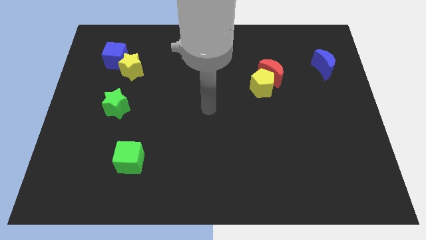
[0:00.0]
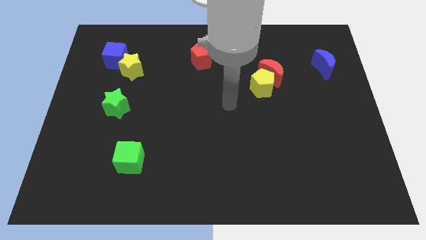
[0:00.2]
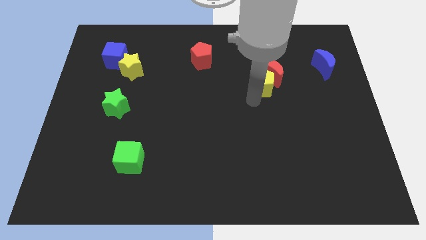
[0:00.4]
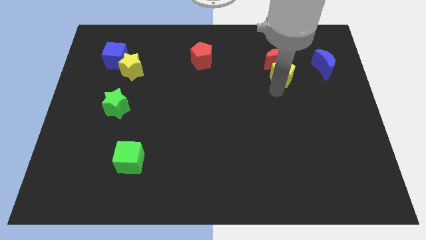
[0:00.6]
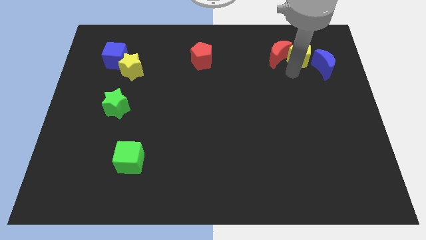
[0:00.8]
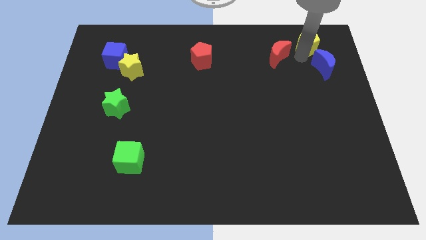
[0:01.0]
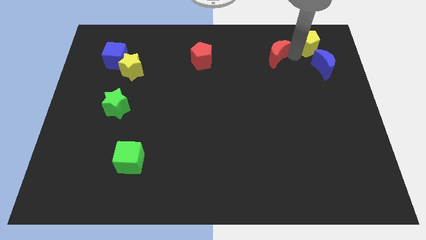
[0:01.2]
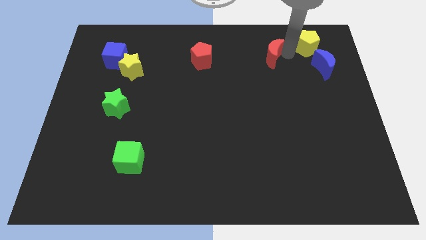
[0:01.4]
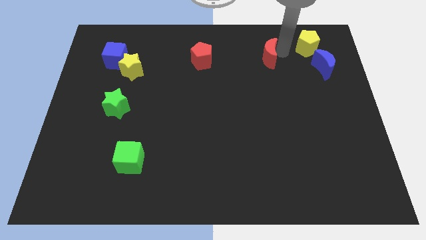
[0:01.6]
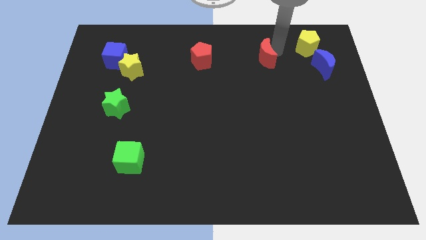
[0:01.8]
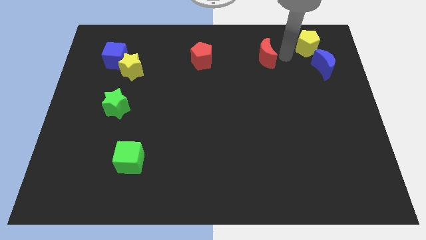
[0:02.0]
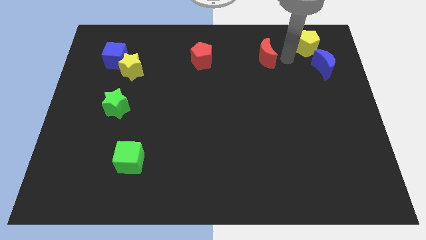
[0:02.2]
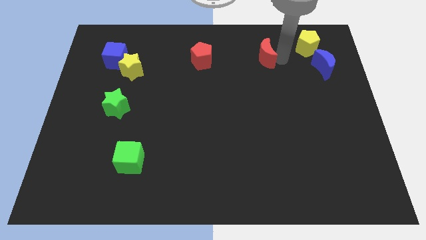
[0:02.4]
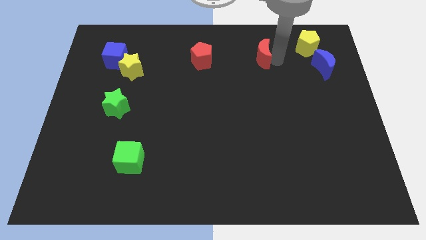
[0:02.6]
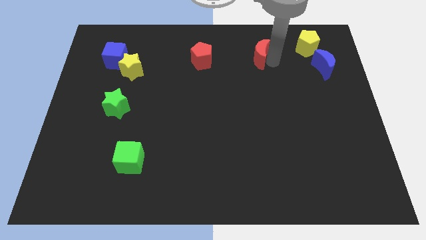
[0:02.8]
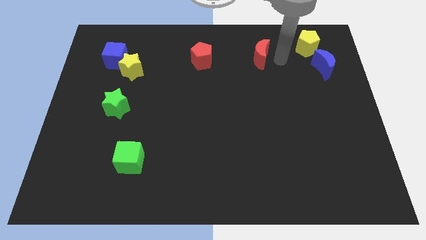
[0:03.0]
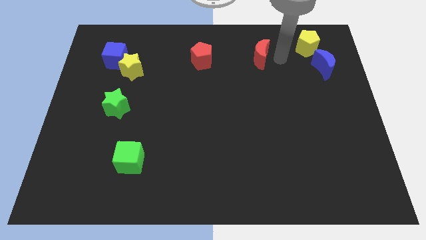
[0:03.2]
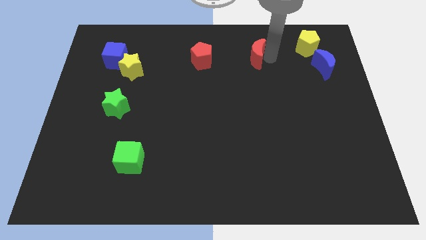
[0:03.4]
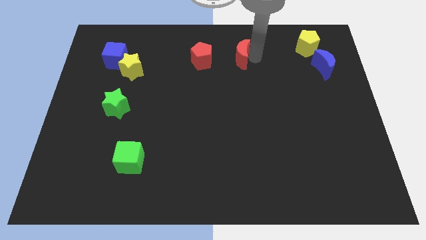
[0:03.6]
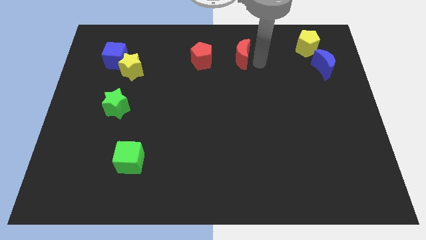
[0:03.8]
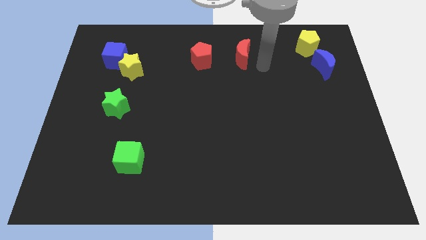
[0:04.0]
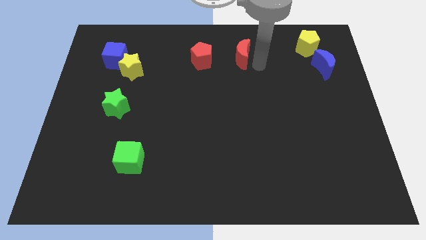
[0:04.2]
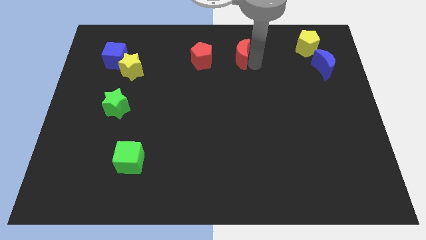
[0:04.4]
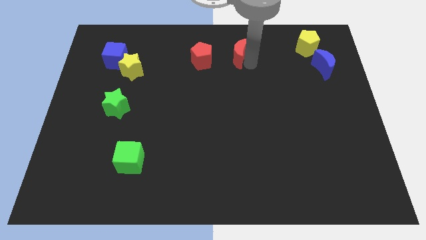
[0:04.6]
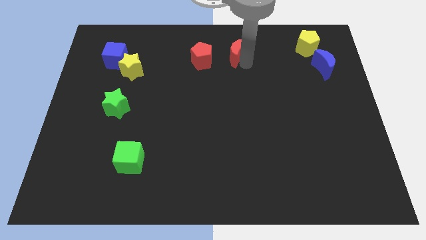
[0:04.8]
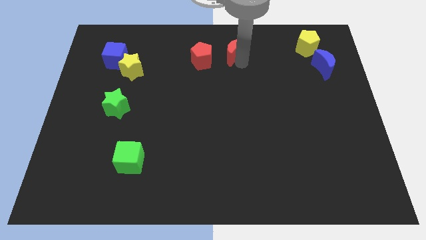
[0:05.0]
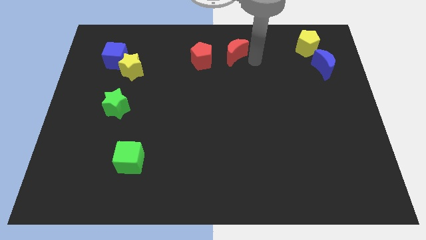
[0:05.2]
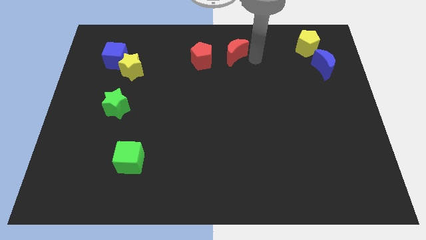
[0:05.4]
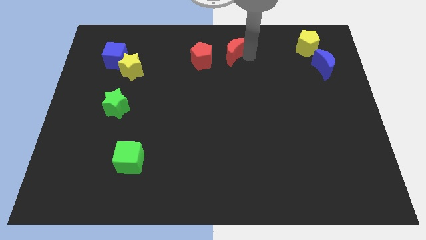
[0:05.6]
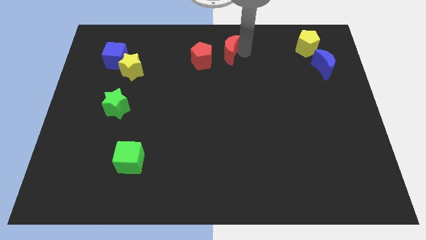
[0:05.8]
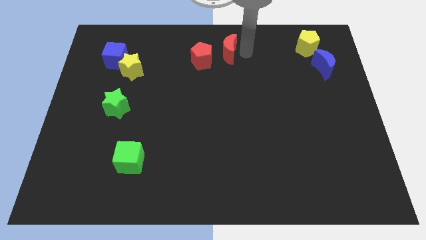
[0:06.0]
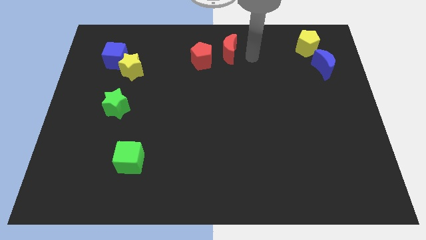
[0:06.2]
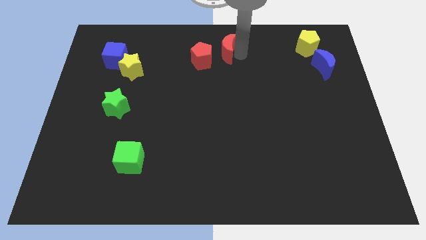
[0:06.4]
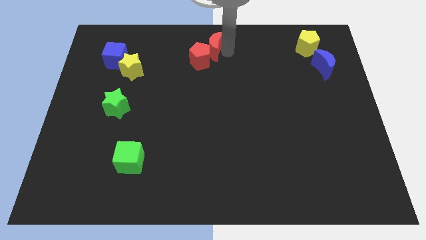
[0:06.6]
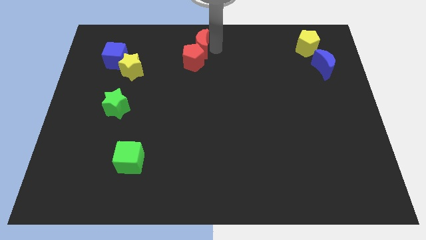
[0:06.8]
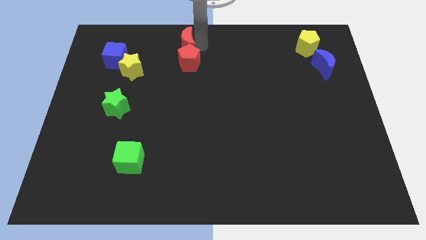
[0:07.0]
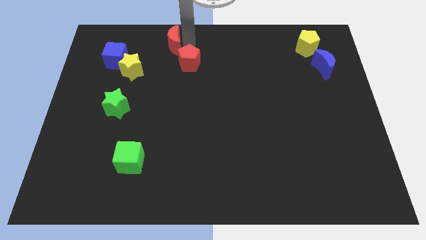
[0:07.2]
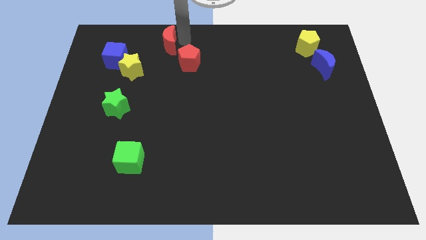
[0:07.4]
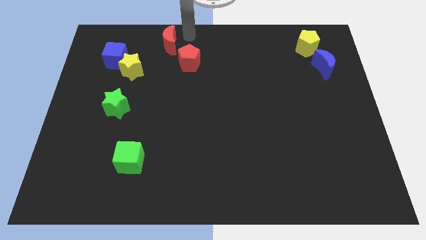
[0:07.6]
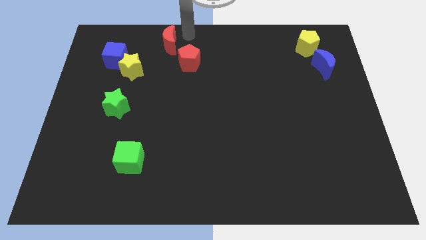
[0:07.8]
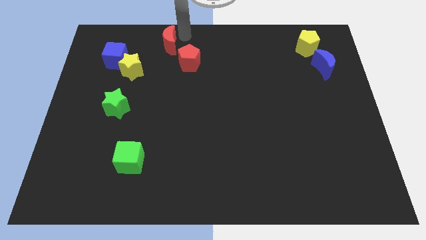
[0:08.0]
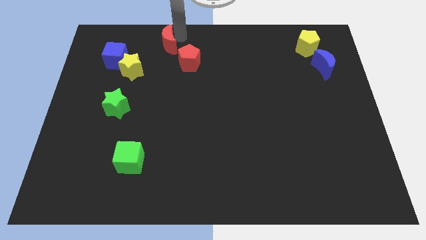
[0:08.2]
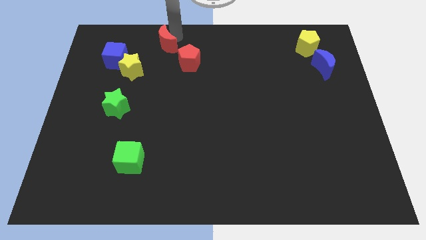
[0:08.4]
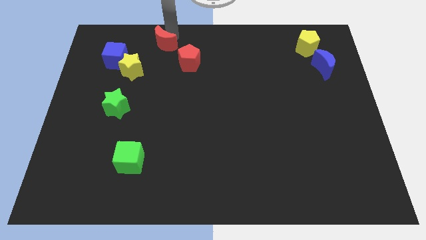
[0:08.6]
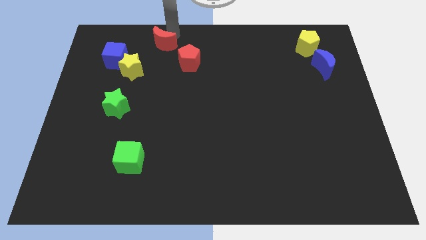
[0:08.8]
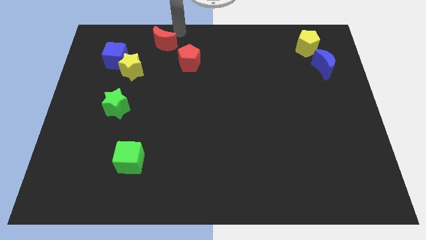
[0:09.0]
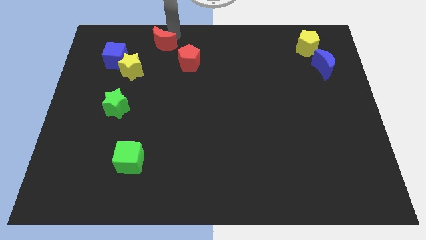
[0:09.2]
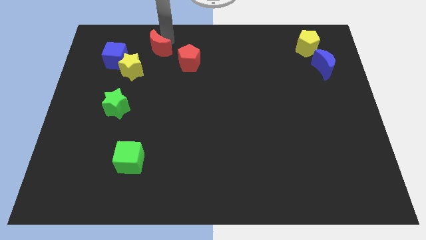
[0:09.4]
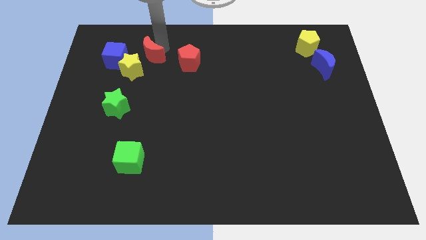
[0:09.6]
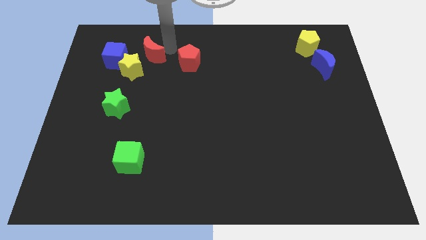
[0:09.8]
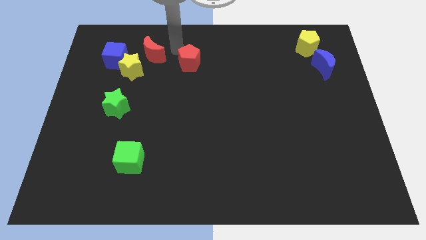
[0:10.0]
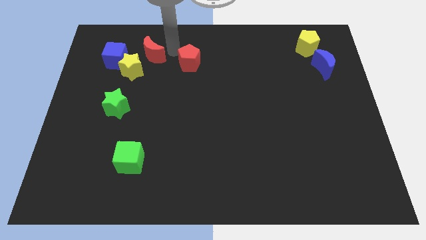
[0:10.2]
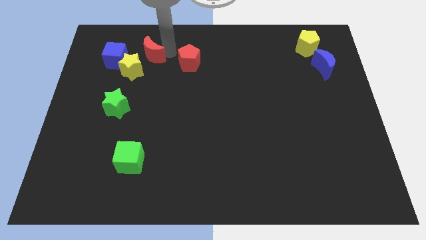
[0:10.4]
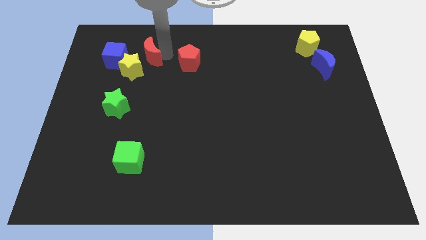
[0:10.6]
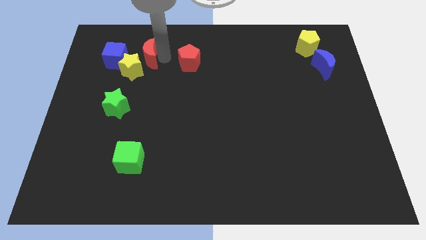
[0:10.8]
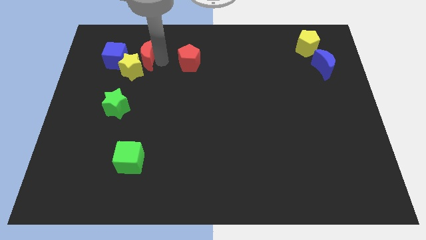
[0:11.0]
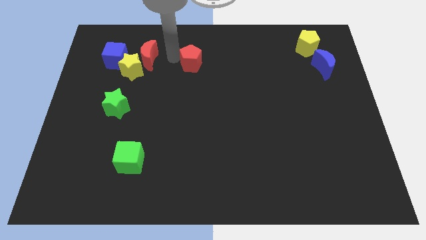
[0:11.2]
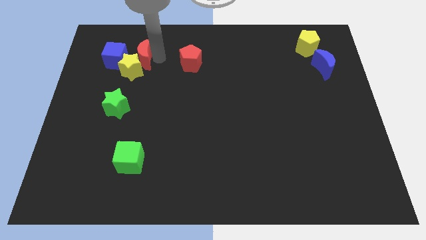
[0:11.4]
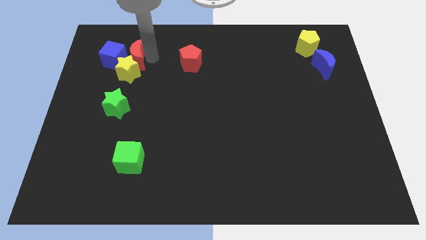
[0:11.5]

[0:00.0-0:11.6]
slide the red moon to the blue cube

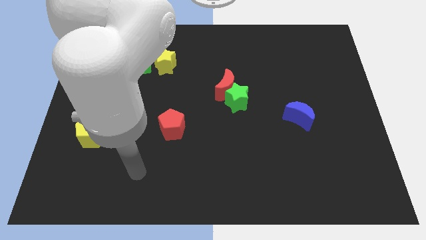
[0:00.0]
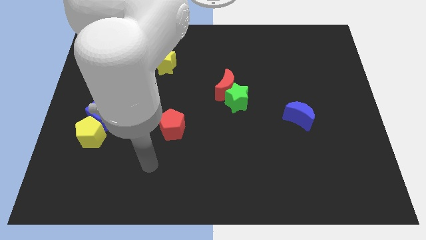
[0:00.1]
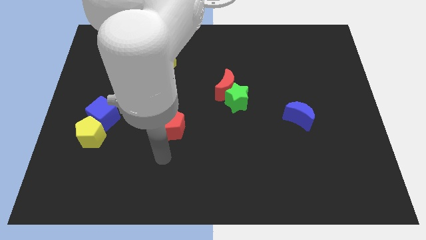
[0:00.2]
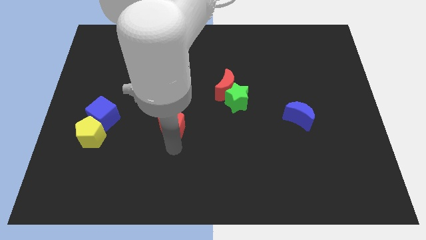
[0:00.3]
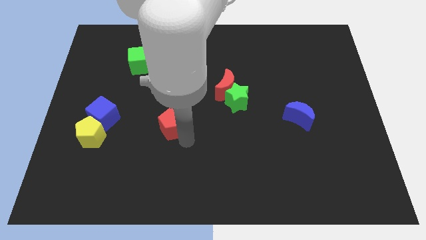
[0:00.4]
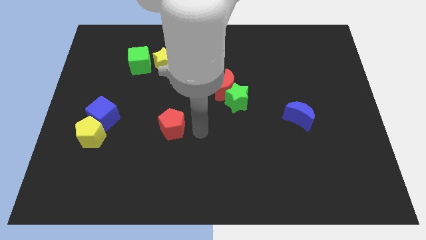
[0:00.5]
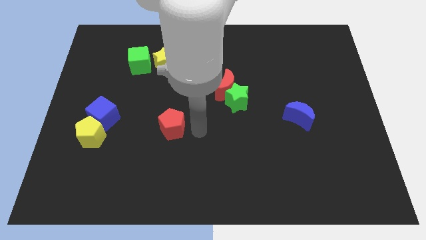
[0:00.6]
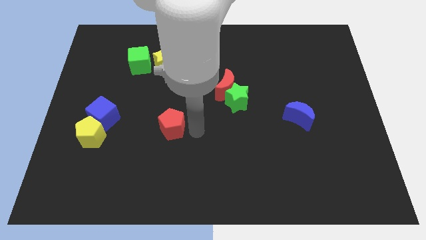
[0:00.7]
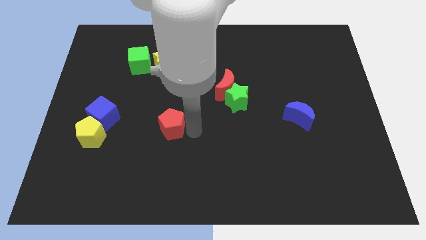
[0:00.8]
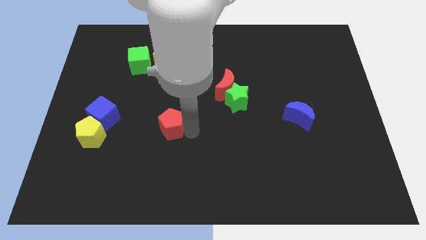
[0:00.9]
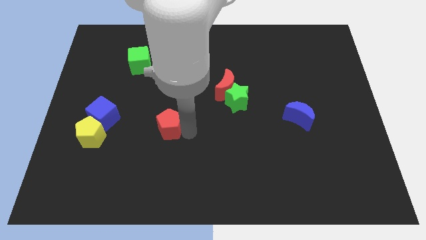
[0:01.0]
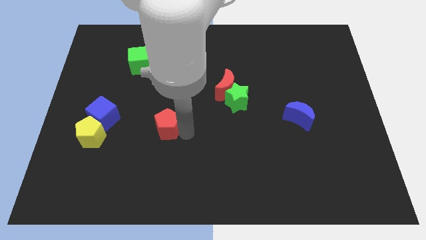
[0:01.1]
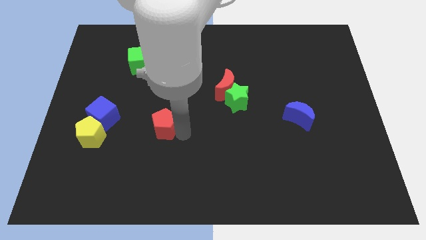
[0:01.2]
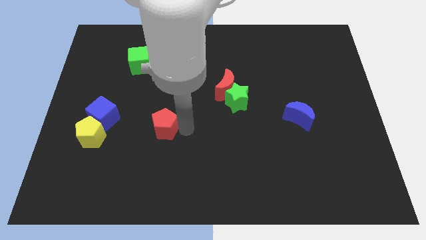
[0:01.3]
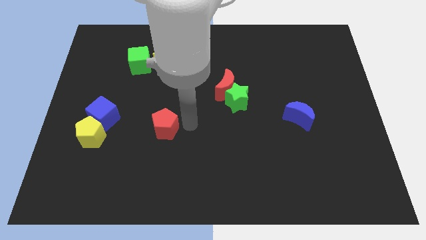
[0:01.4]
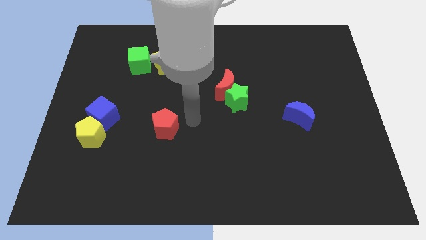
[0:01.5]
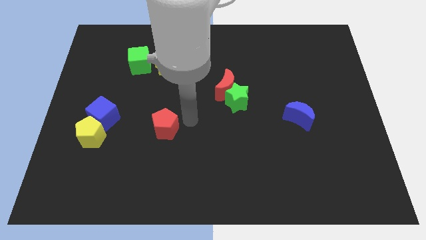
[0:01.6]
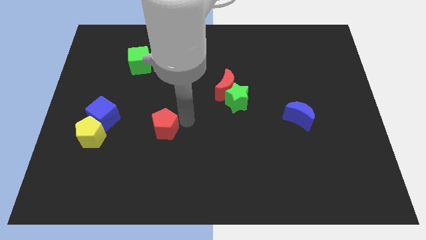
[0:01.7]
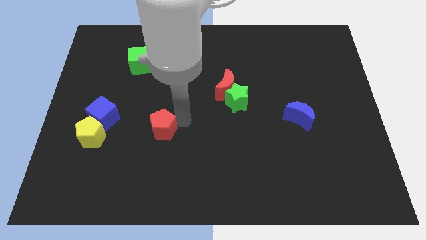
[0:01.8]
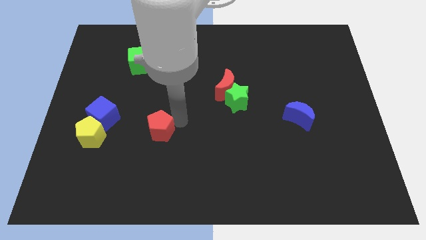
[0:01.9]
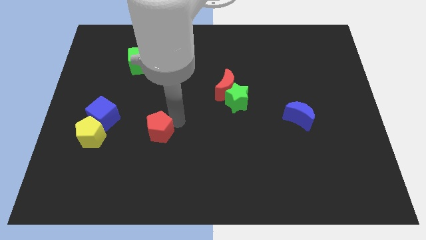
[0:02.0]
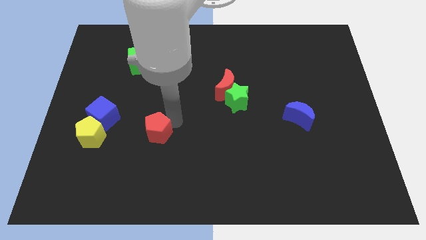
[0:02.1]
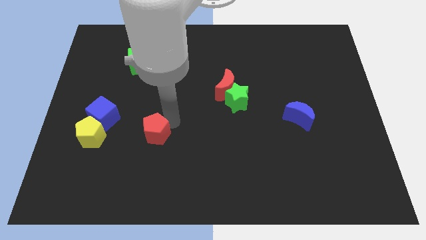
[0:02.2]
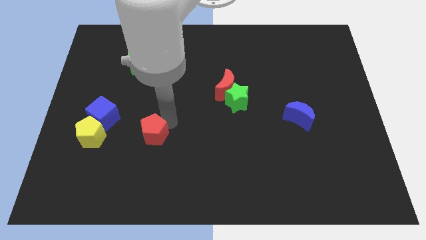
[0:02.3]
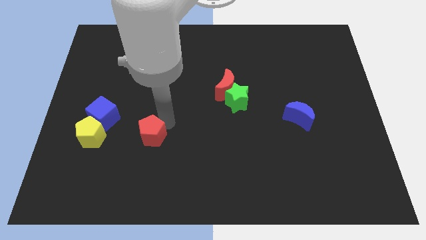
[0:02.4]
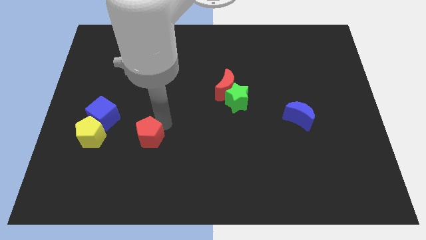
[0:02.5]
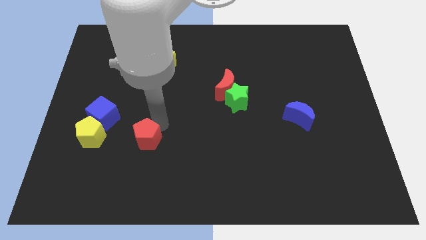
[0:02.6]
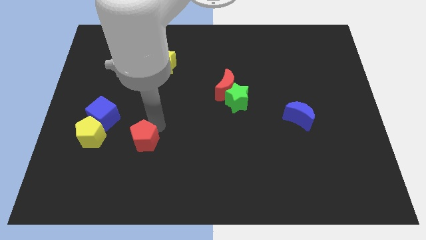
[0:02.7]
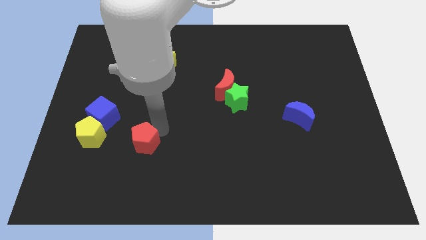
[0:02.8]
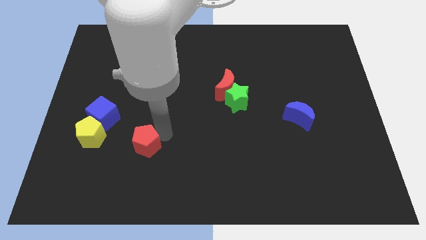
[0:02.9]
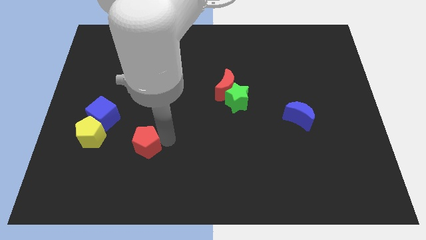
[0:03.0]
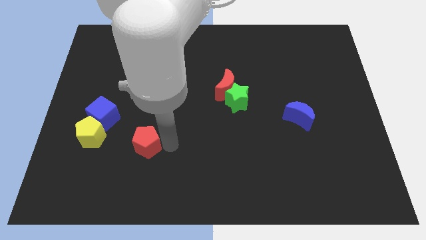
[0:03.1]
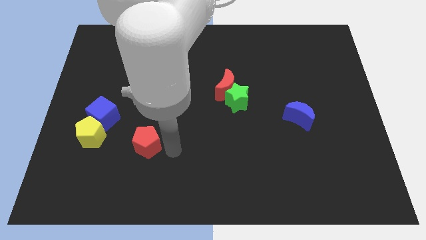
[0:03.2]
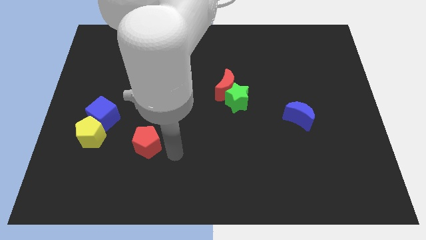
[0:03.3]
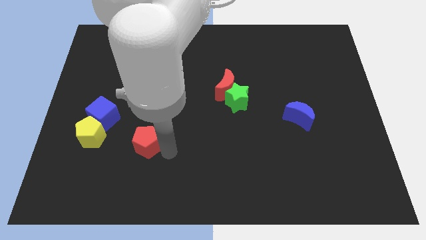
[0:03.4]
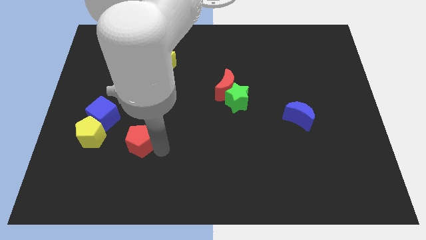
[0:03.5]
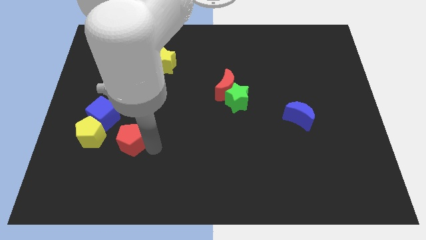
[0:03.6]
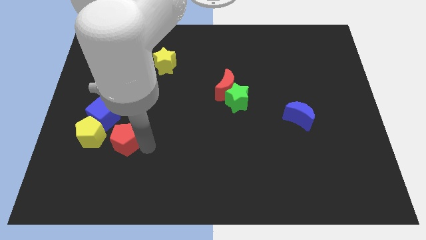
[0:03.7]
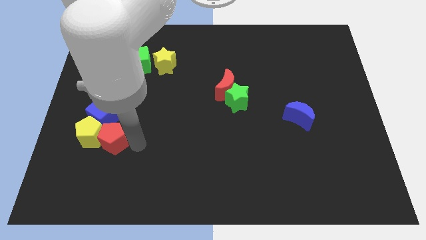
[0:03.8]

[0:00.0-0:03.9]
push the red pentagon next to the yellow pentagon
